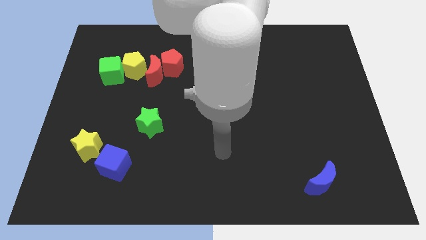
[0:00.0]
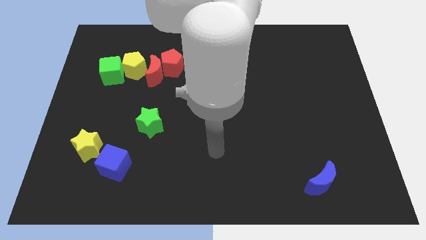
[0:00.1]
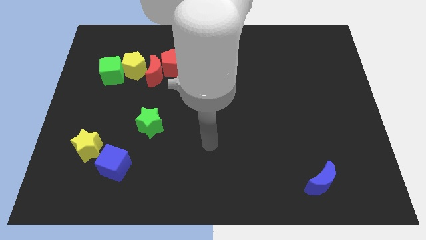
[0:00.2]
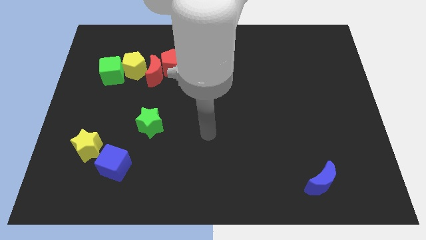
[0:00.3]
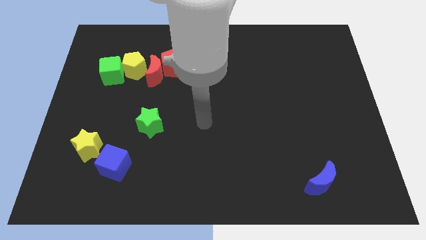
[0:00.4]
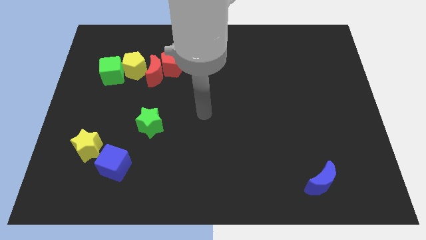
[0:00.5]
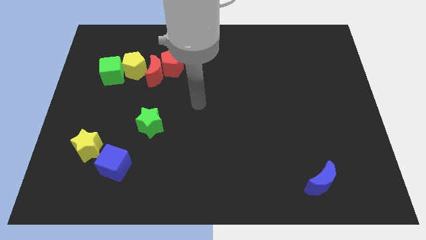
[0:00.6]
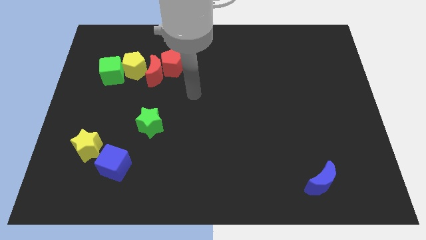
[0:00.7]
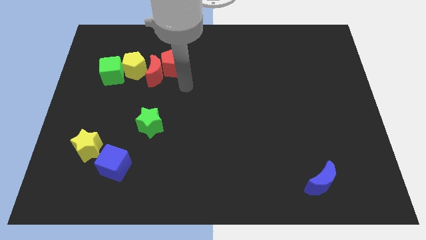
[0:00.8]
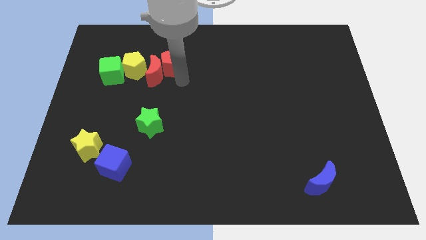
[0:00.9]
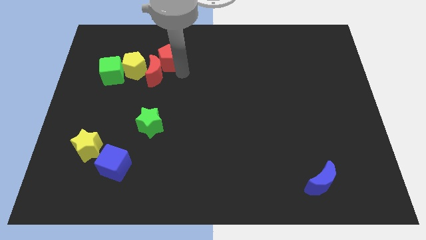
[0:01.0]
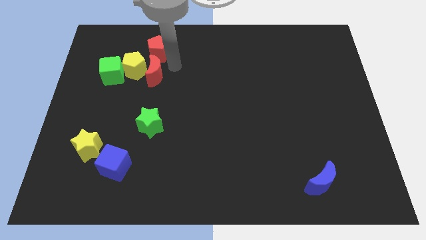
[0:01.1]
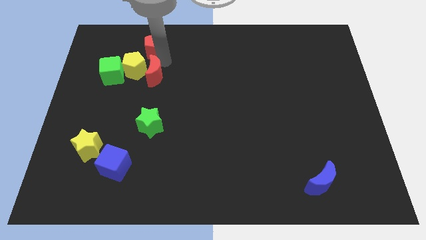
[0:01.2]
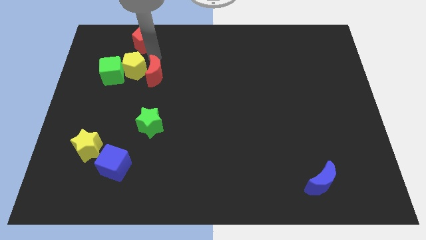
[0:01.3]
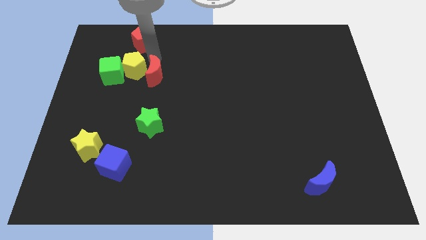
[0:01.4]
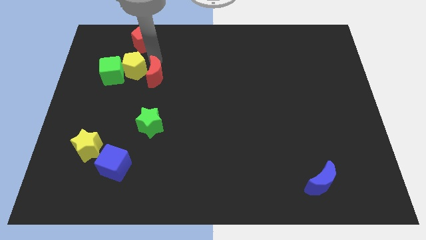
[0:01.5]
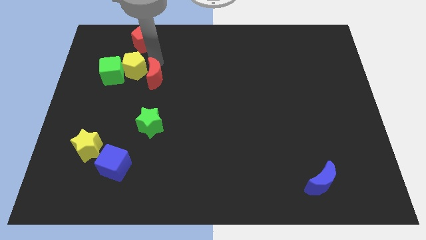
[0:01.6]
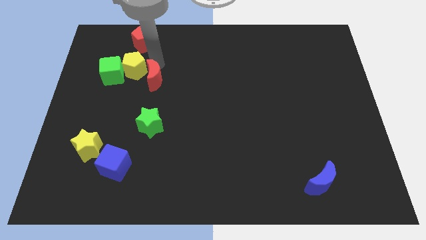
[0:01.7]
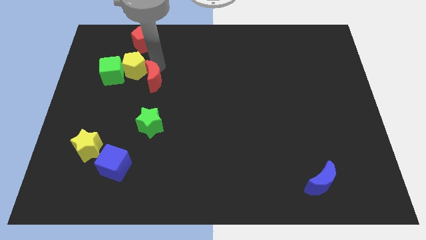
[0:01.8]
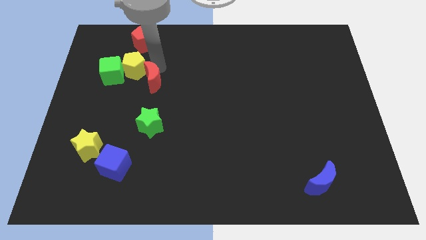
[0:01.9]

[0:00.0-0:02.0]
move the red moon away from the red pentagon and yellow pentagon

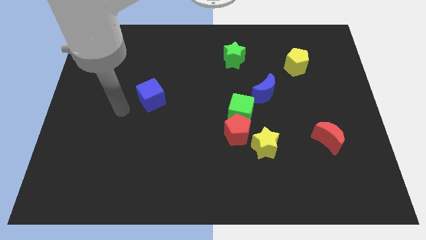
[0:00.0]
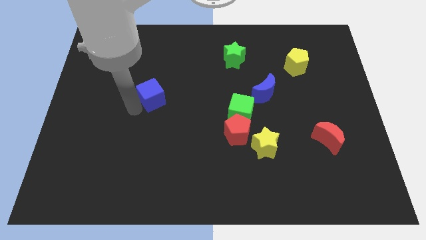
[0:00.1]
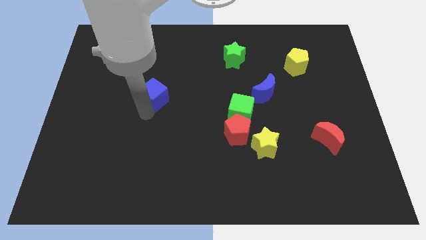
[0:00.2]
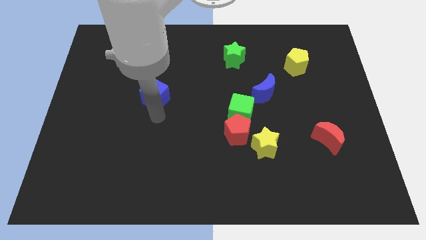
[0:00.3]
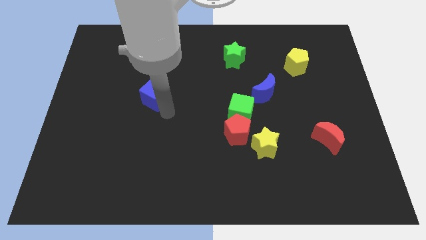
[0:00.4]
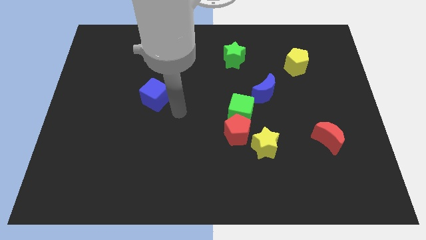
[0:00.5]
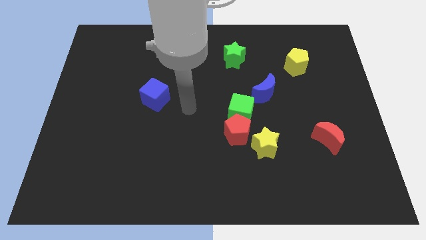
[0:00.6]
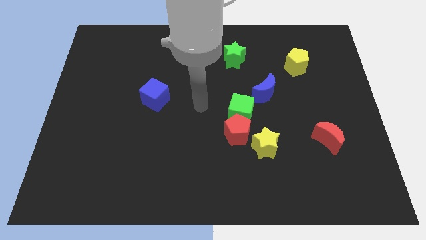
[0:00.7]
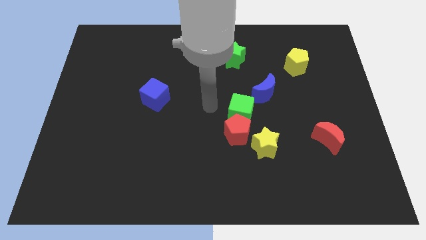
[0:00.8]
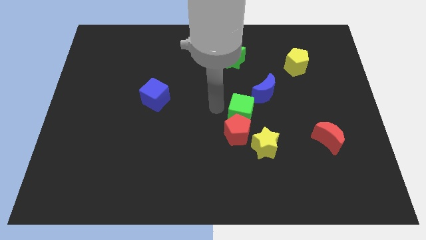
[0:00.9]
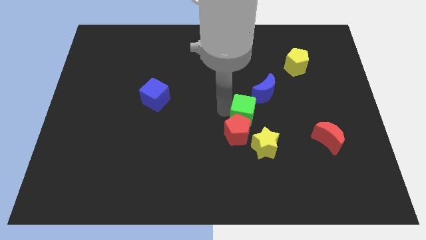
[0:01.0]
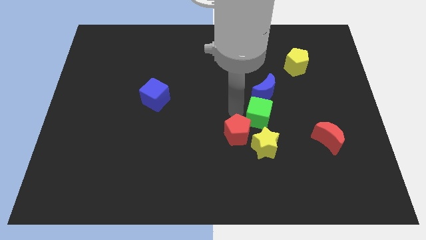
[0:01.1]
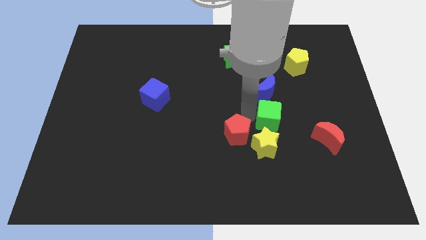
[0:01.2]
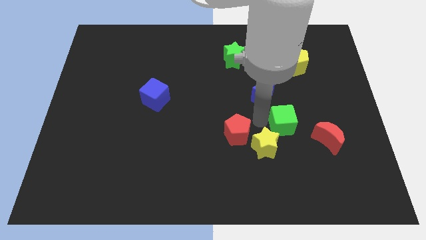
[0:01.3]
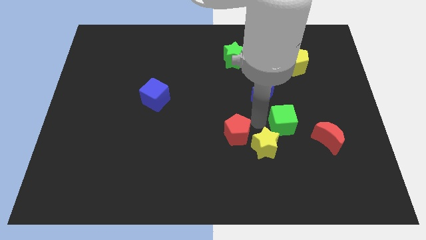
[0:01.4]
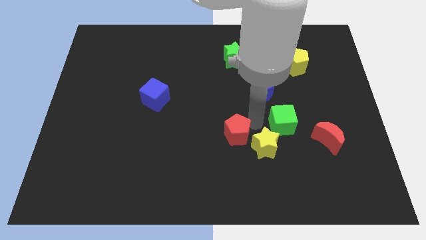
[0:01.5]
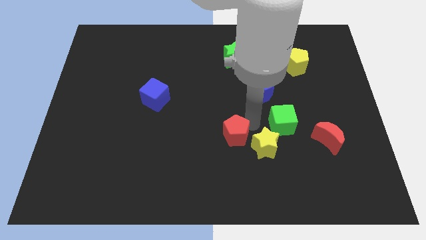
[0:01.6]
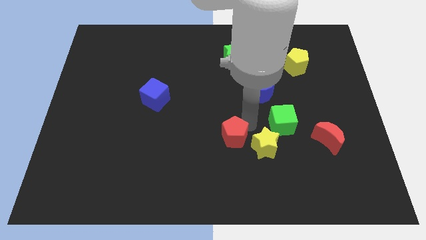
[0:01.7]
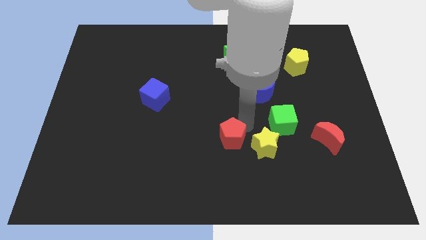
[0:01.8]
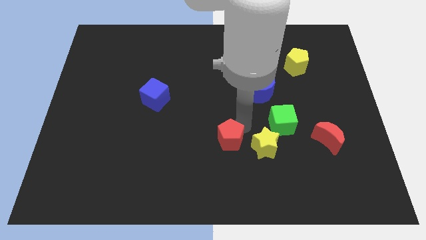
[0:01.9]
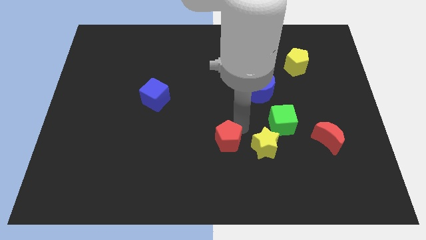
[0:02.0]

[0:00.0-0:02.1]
pull the red pentagon apart from the green cube and yellow star

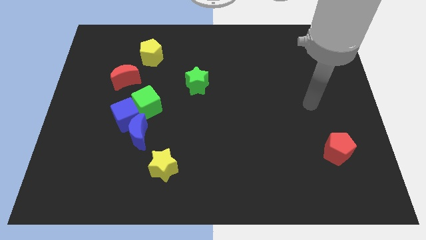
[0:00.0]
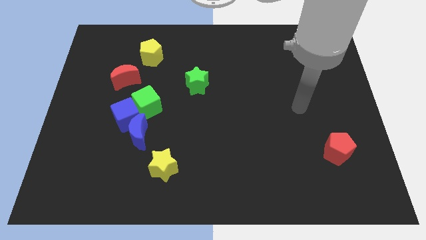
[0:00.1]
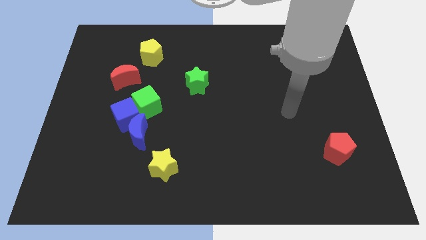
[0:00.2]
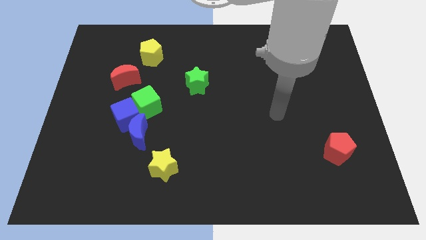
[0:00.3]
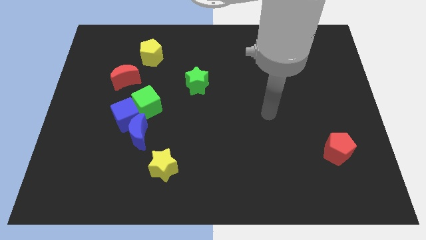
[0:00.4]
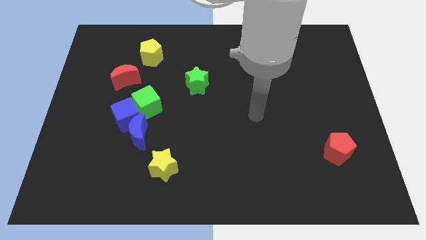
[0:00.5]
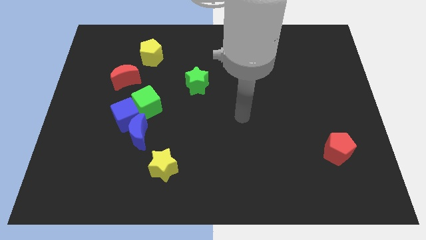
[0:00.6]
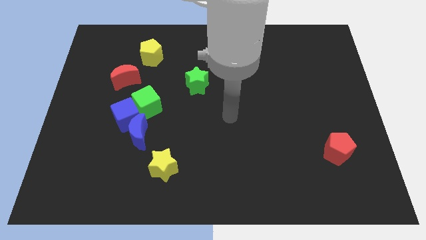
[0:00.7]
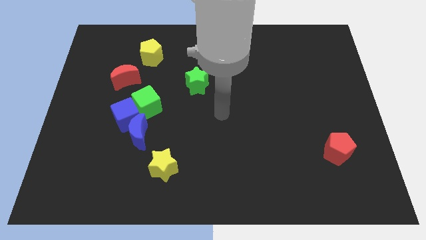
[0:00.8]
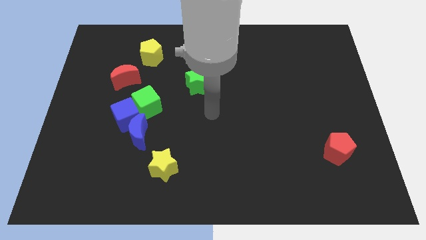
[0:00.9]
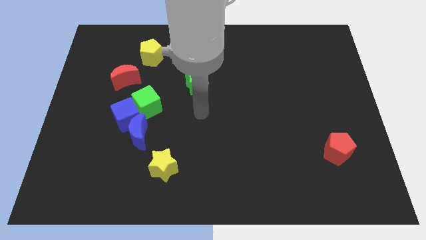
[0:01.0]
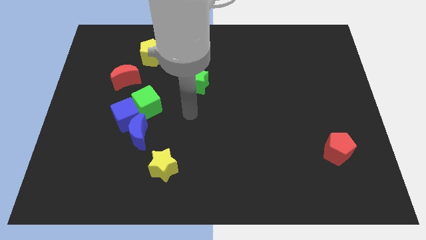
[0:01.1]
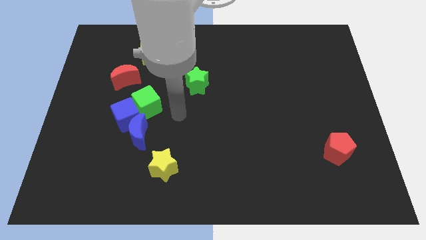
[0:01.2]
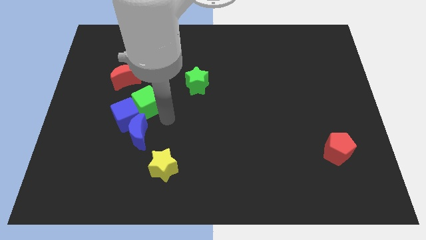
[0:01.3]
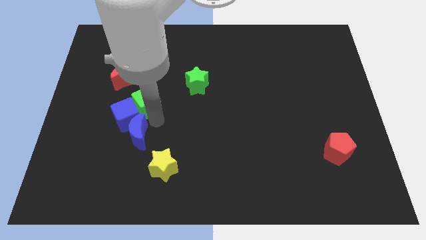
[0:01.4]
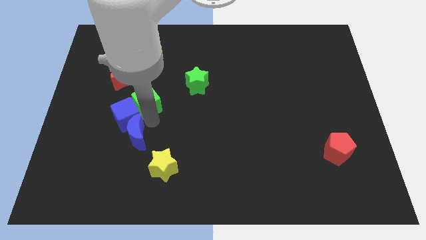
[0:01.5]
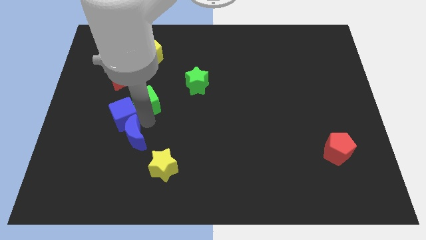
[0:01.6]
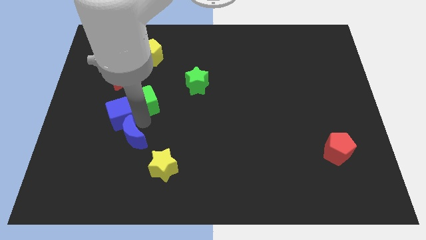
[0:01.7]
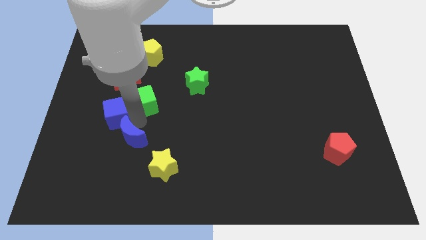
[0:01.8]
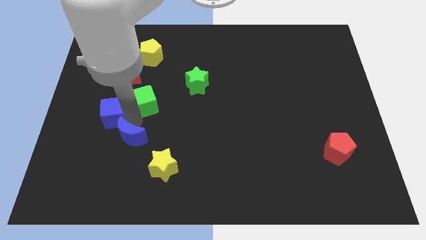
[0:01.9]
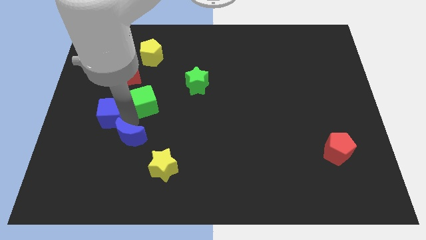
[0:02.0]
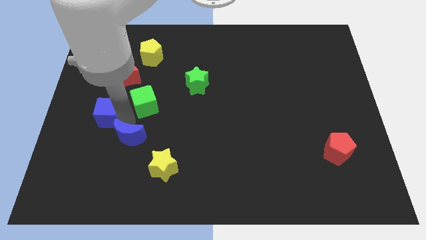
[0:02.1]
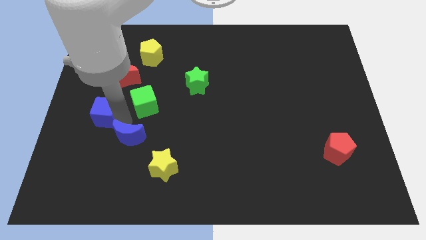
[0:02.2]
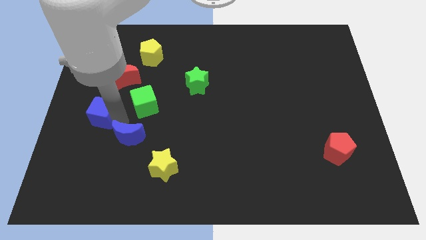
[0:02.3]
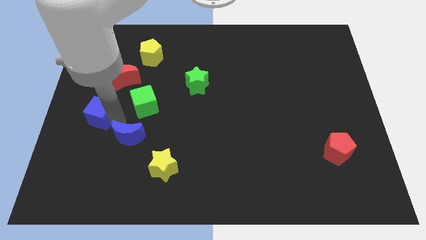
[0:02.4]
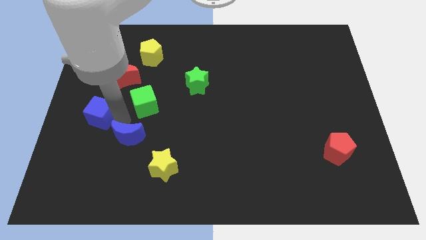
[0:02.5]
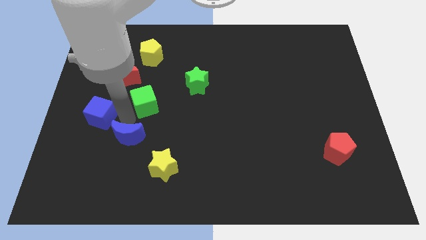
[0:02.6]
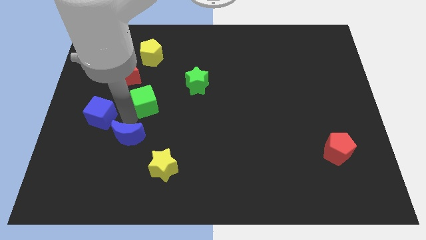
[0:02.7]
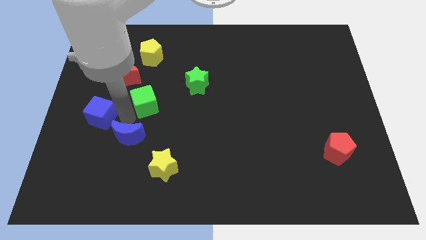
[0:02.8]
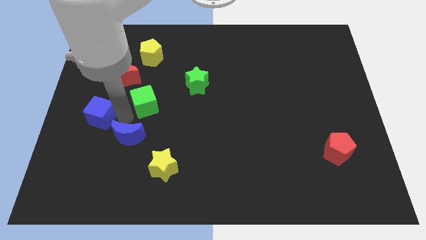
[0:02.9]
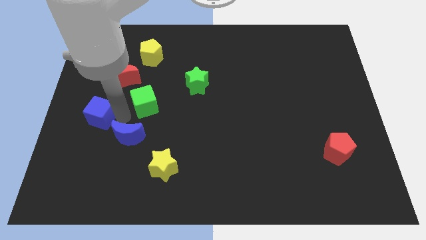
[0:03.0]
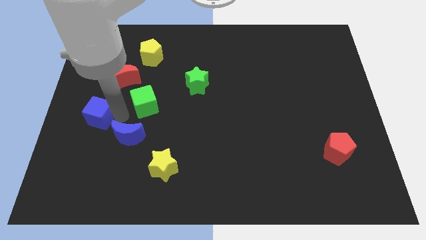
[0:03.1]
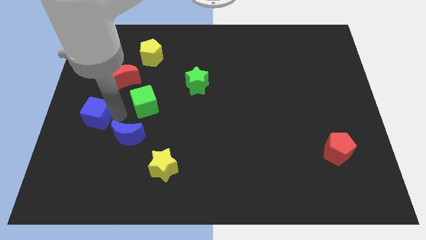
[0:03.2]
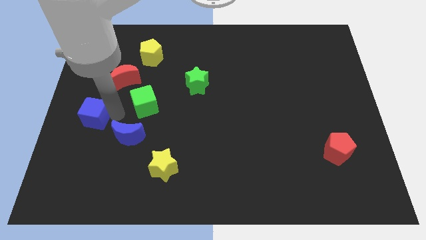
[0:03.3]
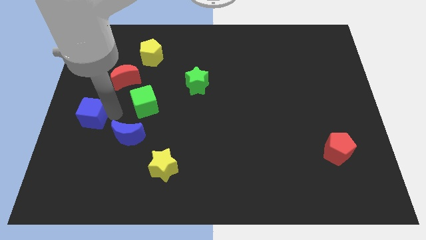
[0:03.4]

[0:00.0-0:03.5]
separate the blue cube from the blue moon and green cube

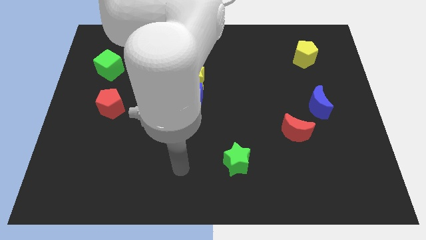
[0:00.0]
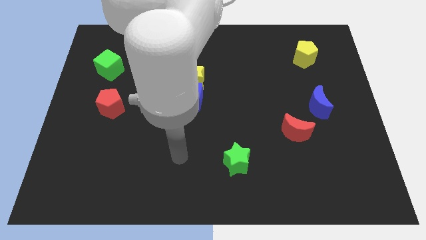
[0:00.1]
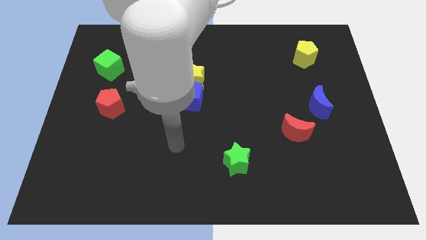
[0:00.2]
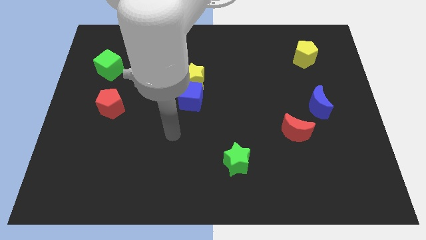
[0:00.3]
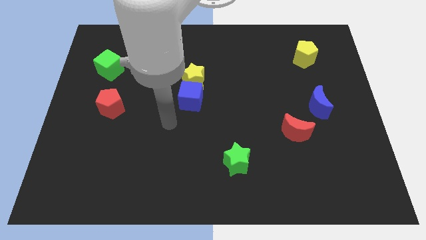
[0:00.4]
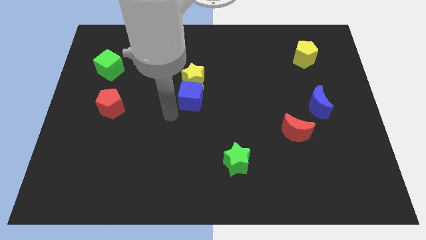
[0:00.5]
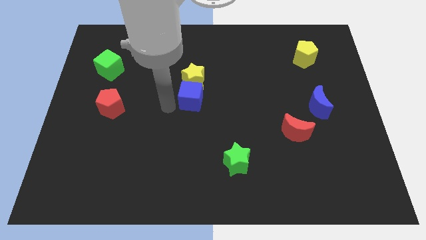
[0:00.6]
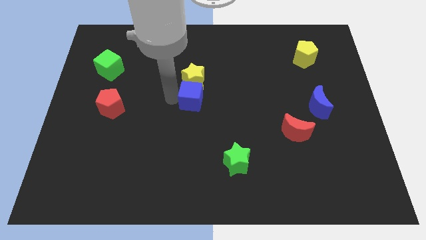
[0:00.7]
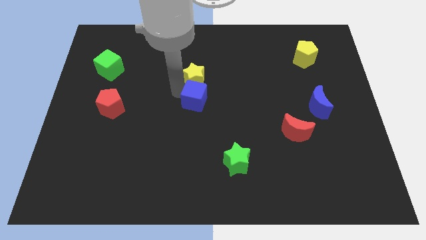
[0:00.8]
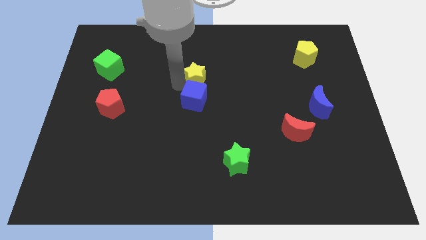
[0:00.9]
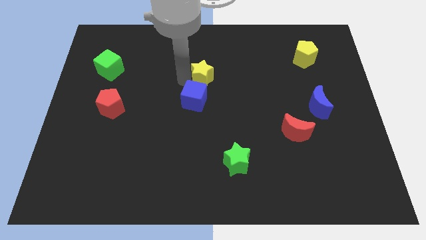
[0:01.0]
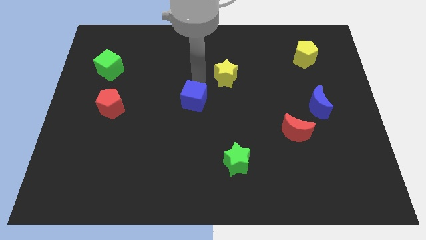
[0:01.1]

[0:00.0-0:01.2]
move the blue cube away from the yellow star

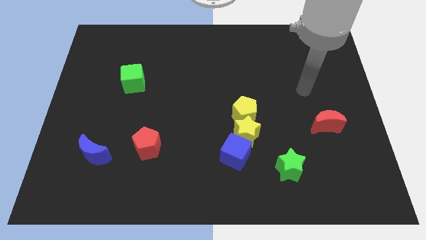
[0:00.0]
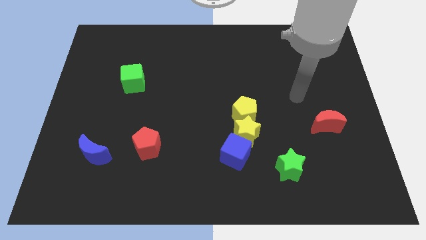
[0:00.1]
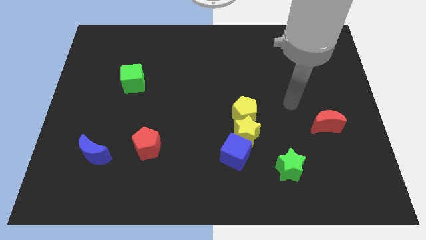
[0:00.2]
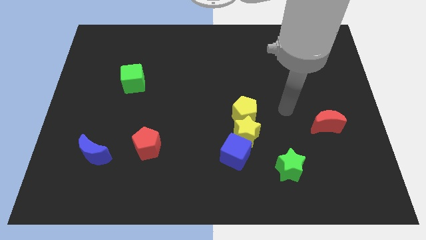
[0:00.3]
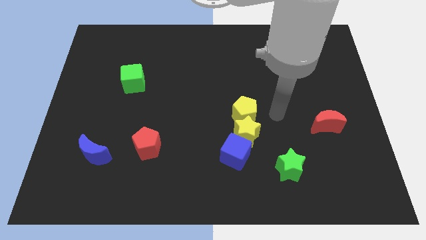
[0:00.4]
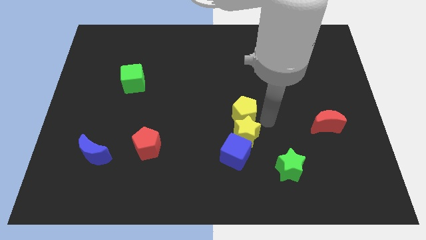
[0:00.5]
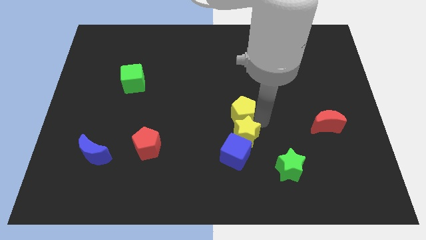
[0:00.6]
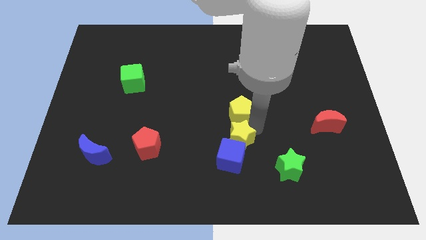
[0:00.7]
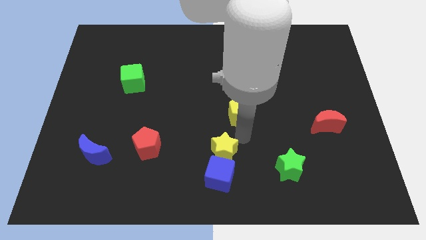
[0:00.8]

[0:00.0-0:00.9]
pull the yellow pentagon apart from the yellow star
